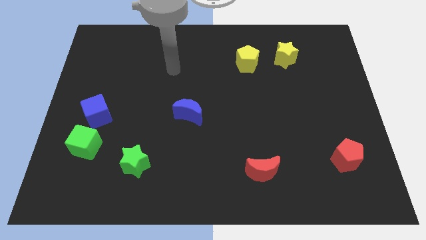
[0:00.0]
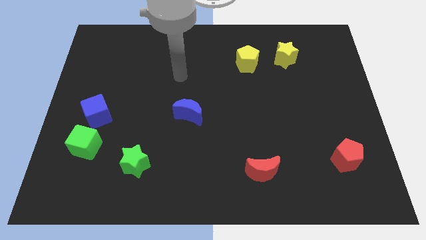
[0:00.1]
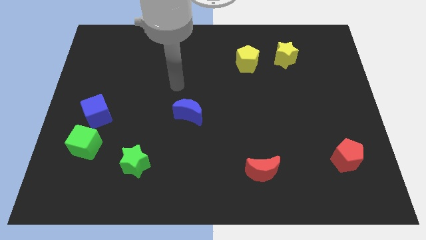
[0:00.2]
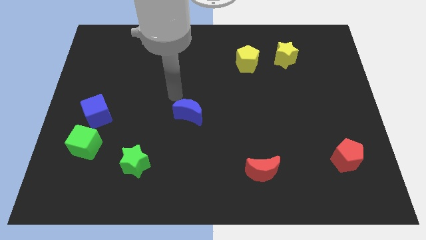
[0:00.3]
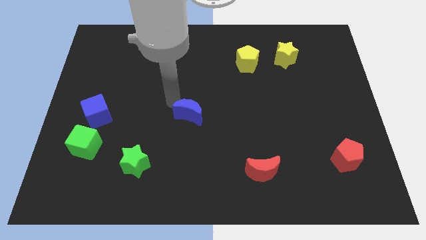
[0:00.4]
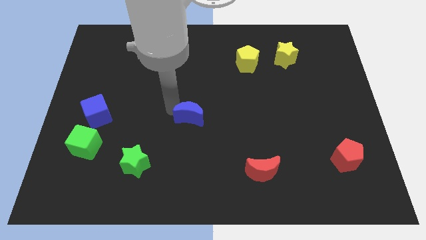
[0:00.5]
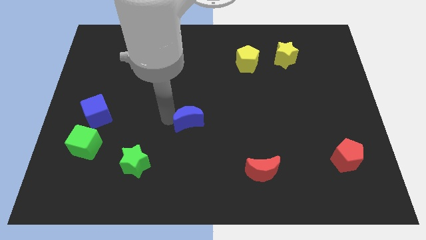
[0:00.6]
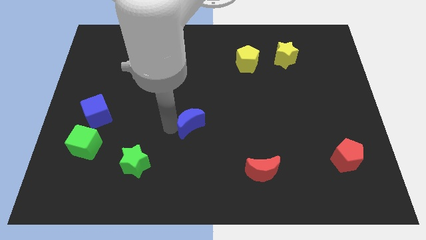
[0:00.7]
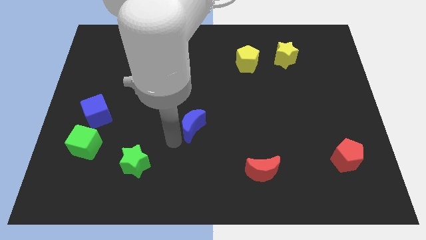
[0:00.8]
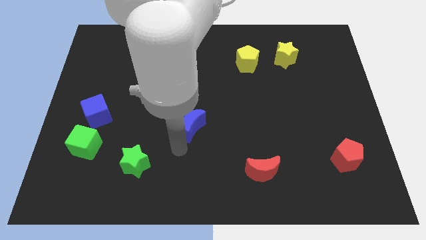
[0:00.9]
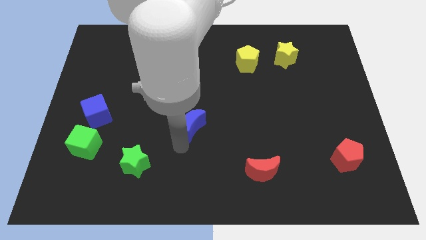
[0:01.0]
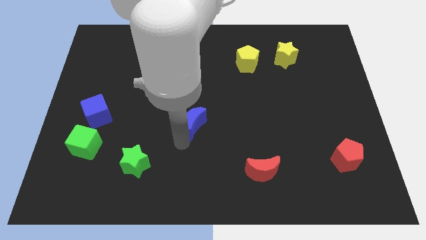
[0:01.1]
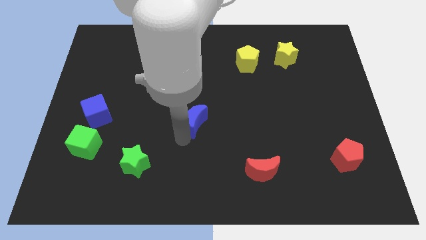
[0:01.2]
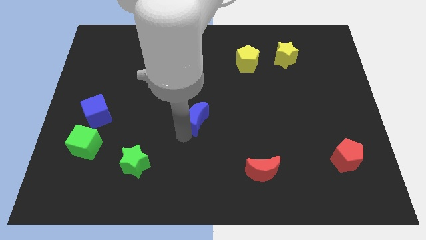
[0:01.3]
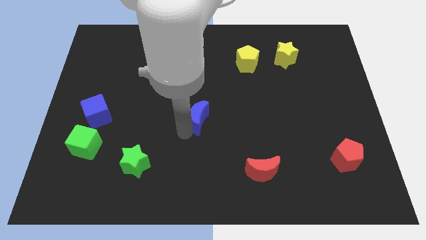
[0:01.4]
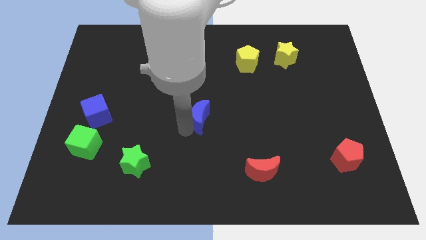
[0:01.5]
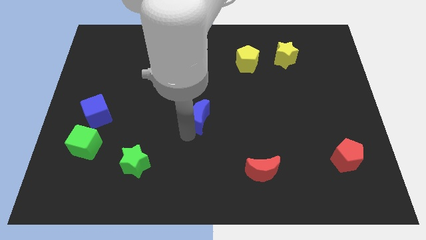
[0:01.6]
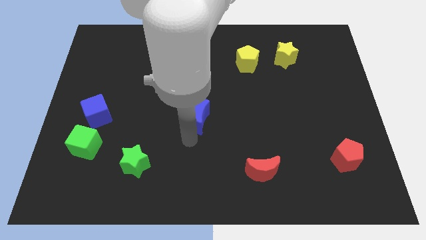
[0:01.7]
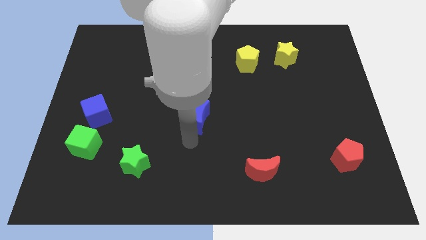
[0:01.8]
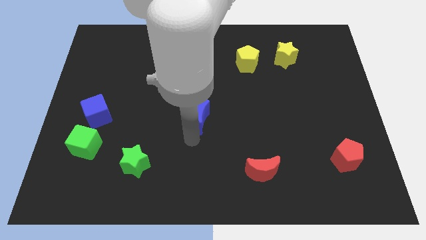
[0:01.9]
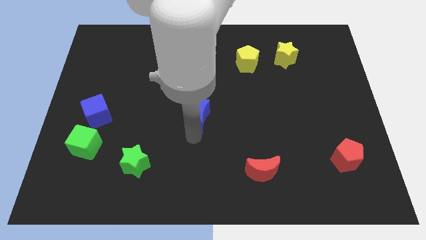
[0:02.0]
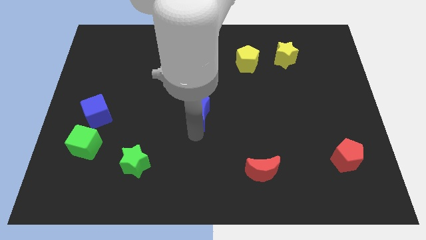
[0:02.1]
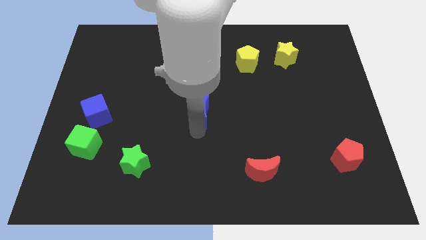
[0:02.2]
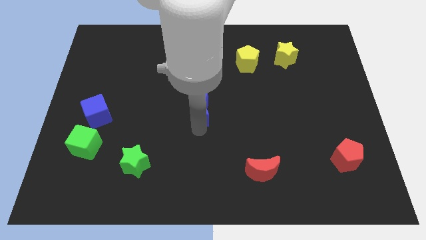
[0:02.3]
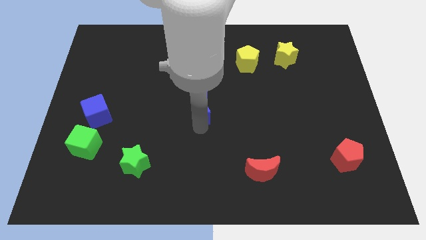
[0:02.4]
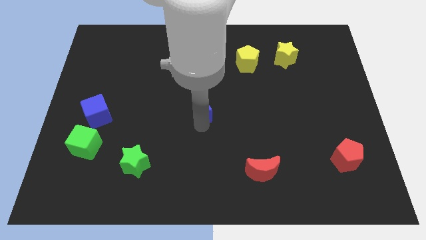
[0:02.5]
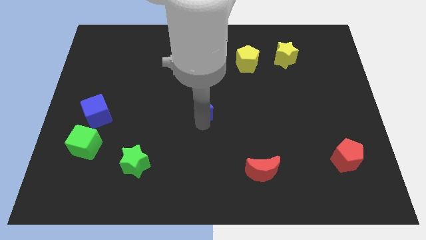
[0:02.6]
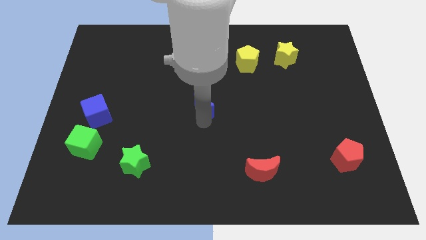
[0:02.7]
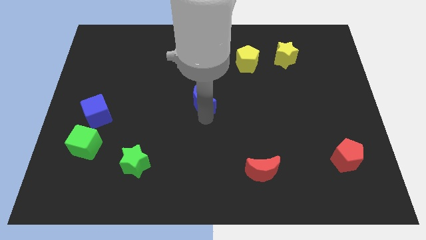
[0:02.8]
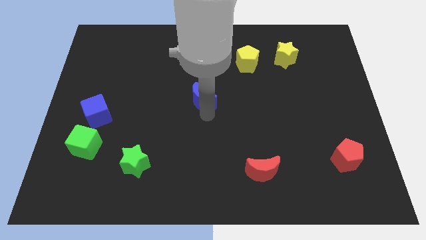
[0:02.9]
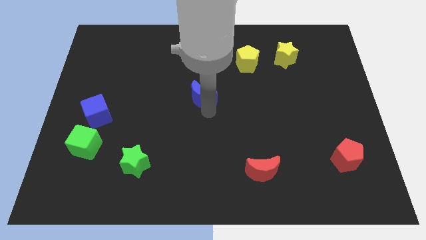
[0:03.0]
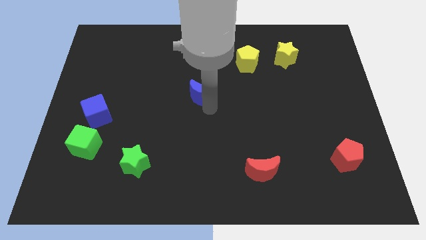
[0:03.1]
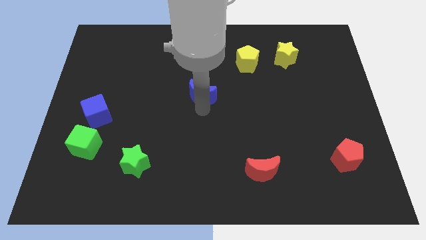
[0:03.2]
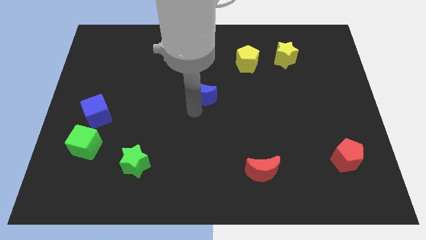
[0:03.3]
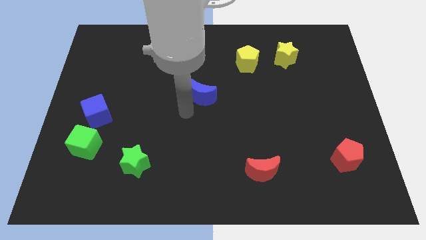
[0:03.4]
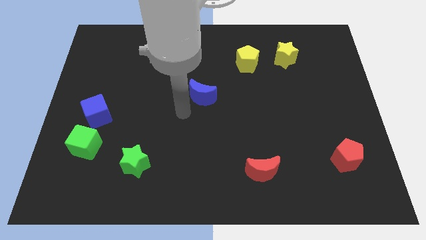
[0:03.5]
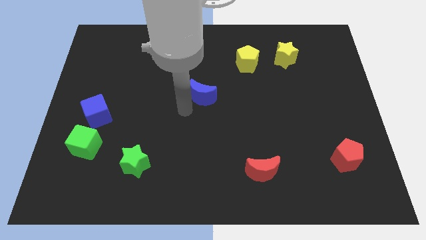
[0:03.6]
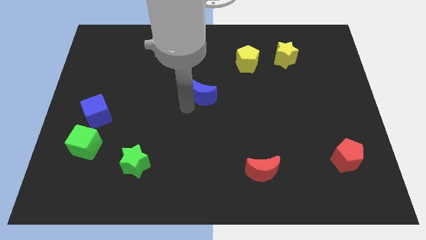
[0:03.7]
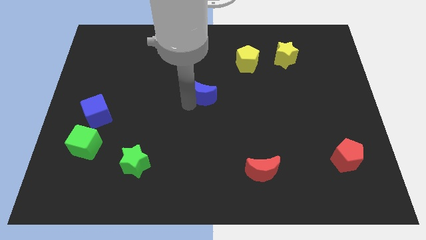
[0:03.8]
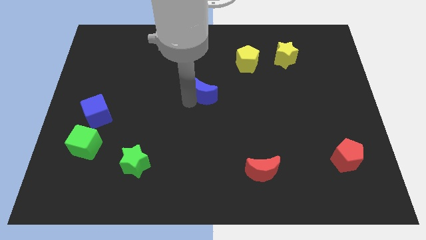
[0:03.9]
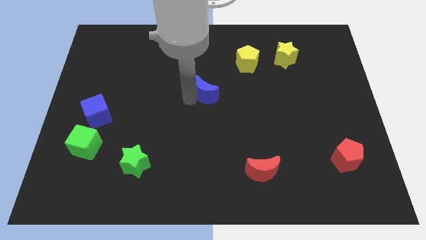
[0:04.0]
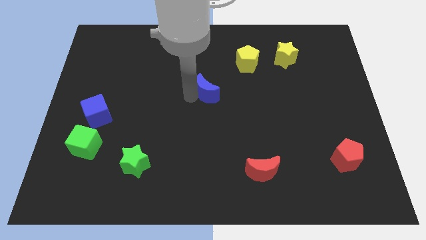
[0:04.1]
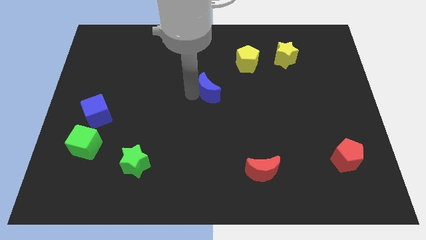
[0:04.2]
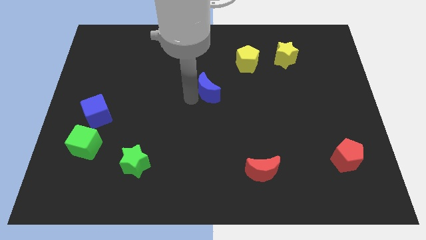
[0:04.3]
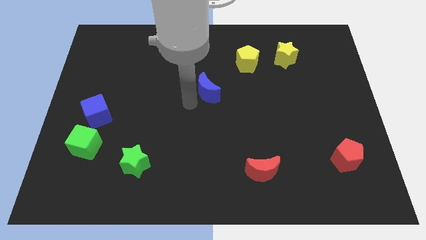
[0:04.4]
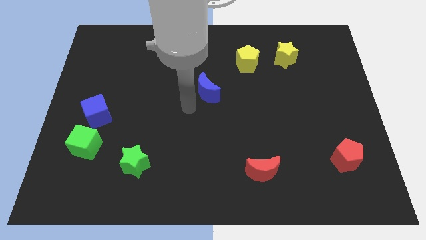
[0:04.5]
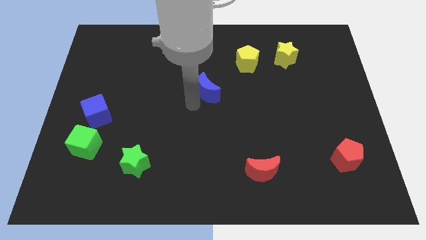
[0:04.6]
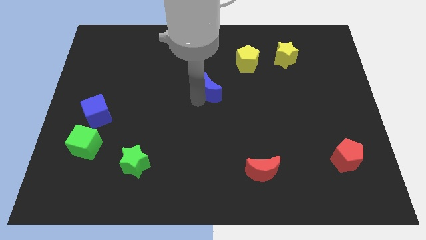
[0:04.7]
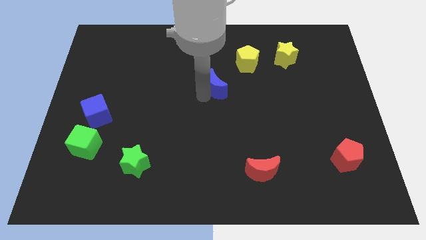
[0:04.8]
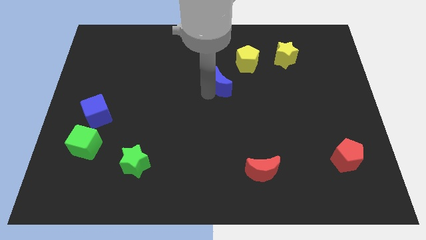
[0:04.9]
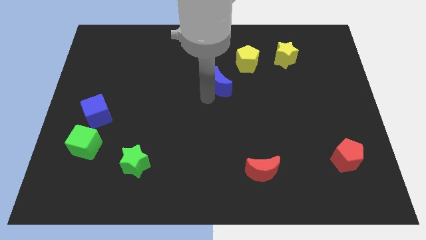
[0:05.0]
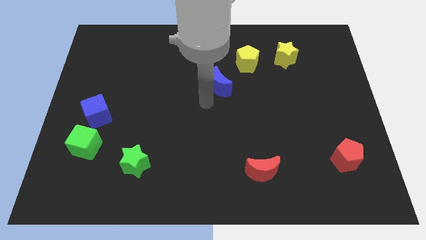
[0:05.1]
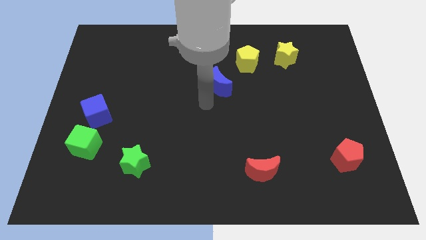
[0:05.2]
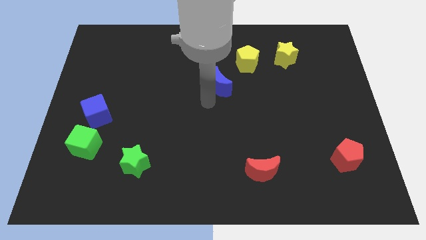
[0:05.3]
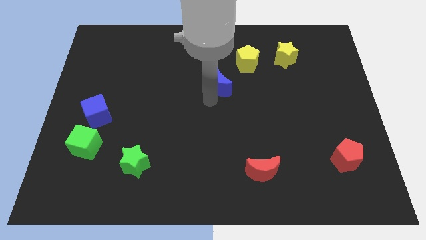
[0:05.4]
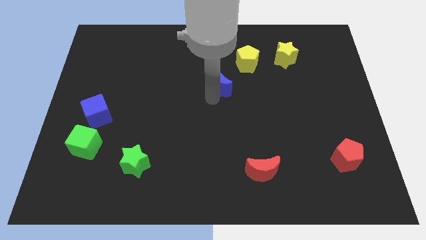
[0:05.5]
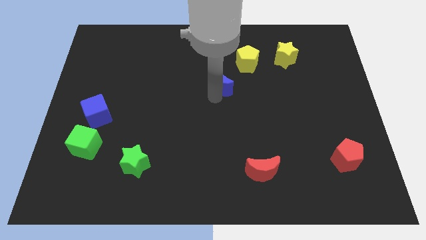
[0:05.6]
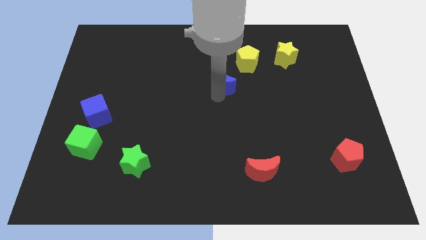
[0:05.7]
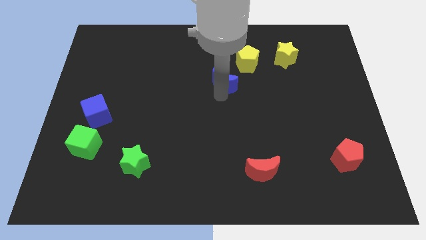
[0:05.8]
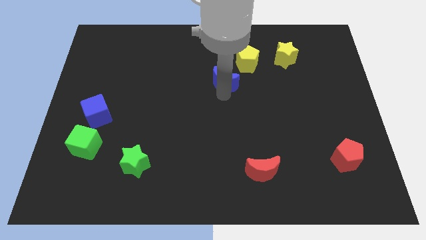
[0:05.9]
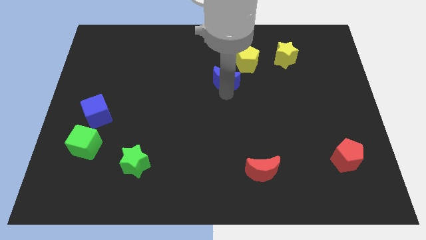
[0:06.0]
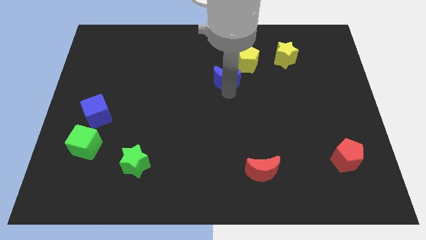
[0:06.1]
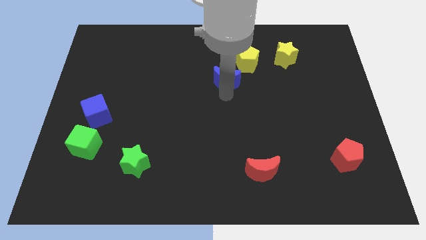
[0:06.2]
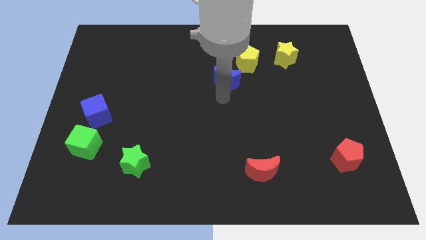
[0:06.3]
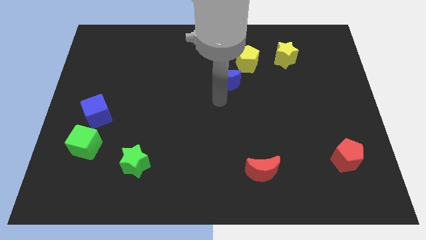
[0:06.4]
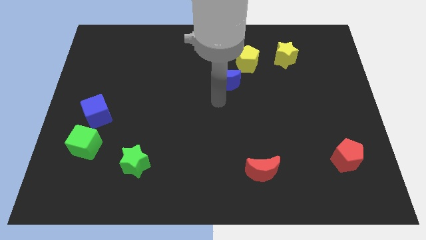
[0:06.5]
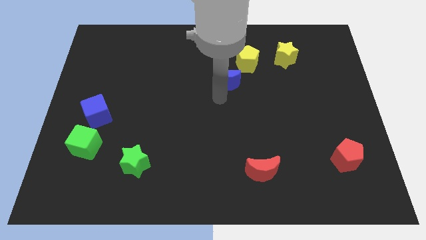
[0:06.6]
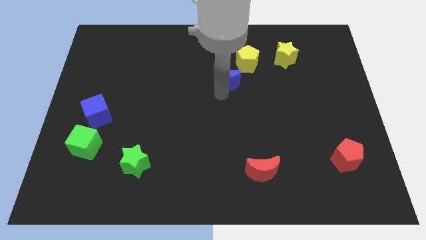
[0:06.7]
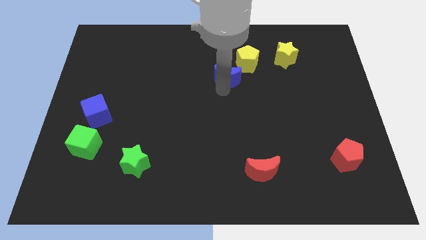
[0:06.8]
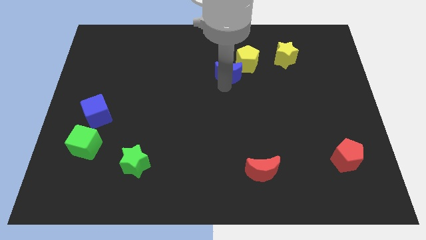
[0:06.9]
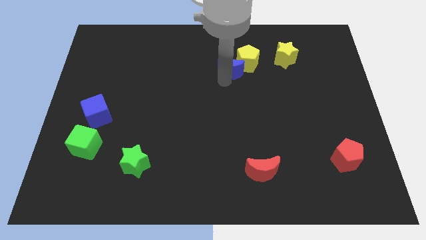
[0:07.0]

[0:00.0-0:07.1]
push the blue moon to the yellow pentagon
